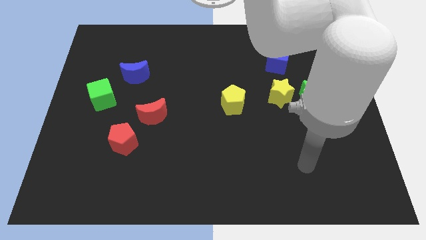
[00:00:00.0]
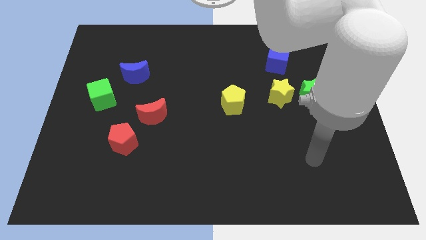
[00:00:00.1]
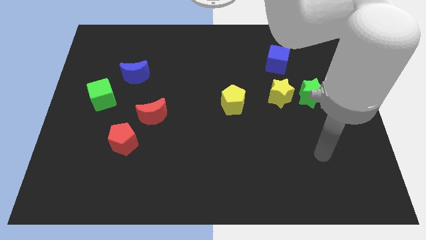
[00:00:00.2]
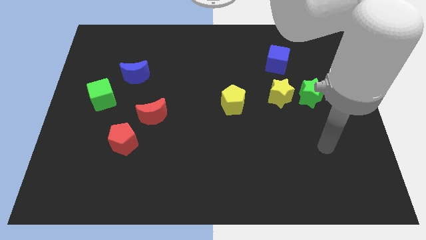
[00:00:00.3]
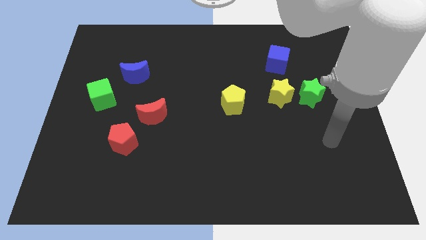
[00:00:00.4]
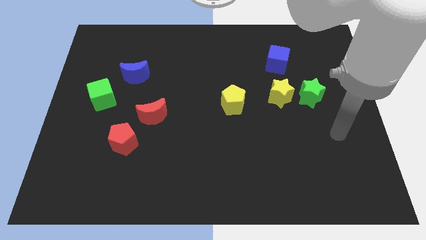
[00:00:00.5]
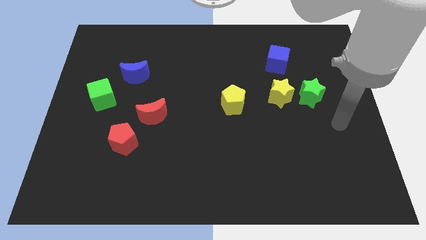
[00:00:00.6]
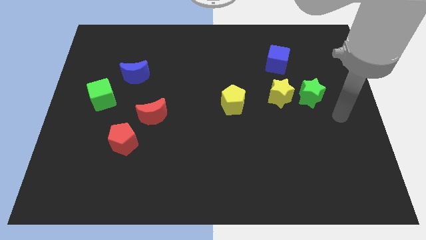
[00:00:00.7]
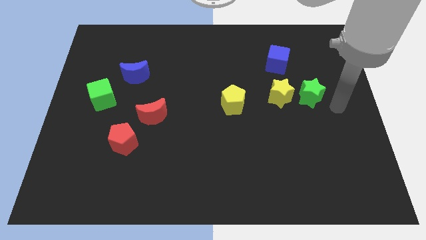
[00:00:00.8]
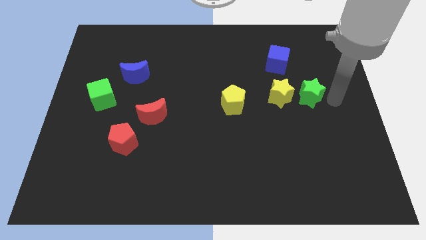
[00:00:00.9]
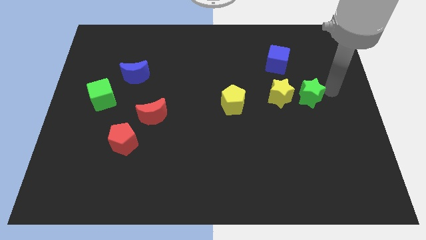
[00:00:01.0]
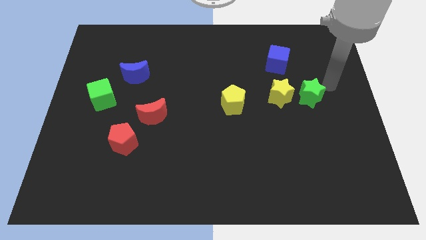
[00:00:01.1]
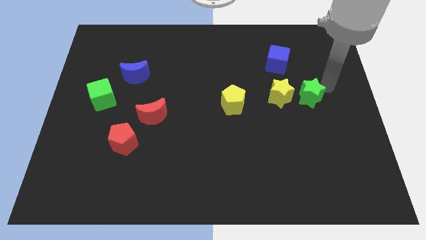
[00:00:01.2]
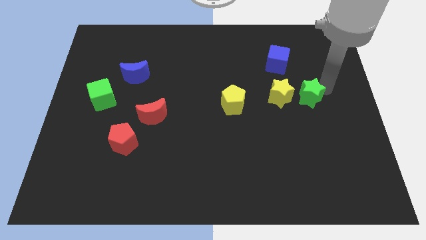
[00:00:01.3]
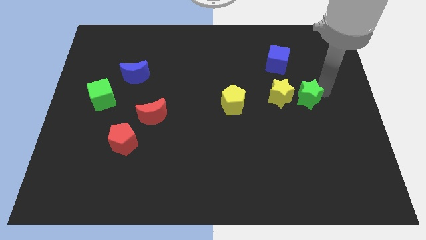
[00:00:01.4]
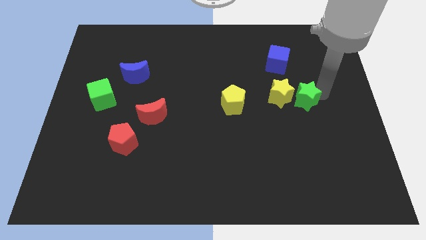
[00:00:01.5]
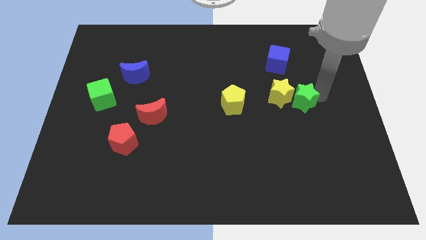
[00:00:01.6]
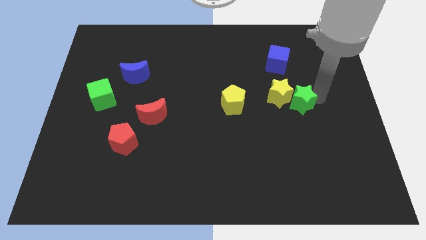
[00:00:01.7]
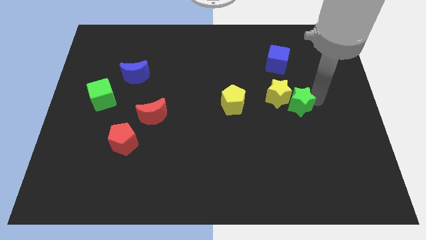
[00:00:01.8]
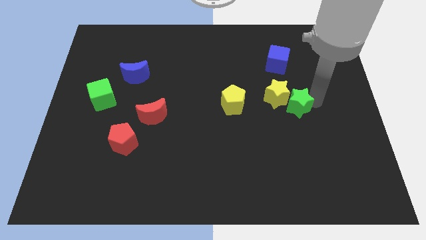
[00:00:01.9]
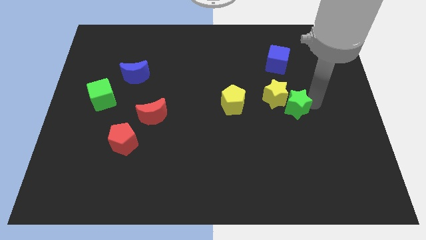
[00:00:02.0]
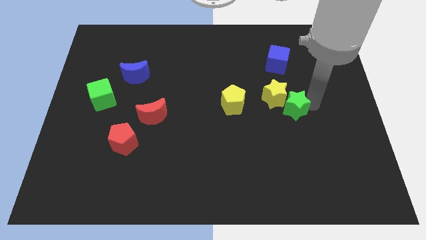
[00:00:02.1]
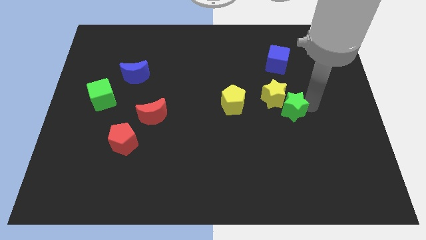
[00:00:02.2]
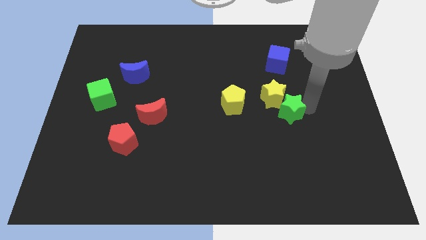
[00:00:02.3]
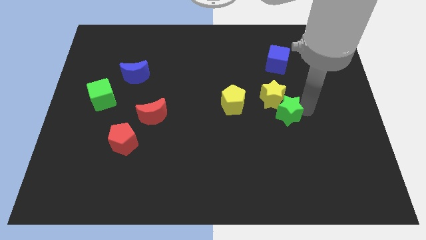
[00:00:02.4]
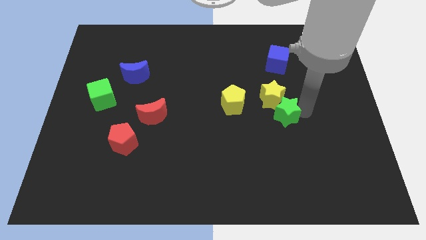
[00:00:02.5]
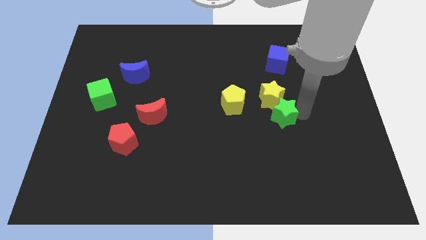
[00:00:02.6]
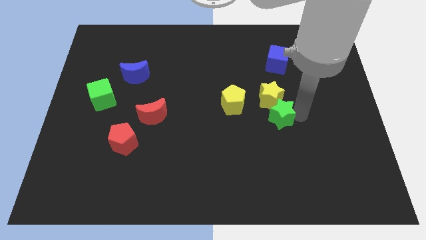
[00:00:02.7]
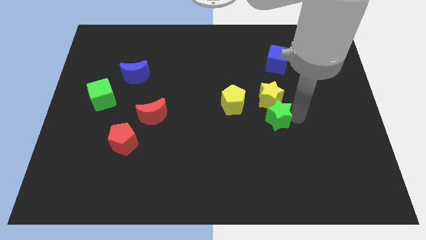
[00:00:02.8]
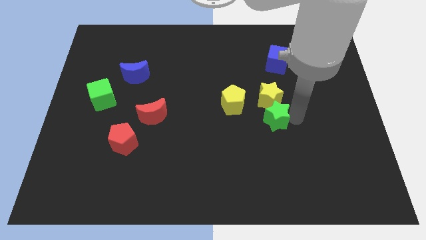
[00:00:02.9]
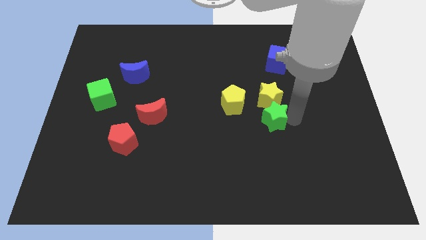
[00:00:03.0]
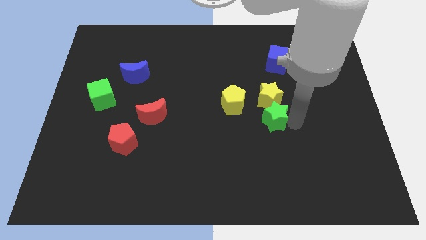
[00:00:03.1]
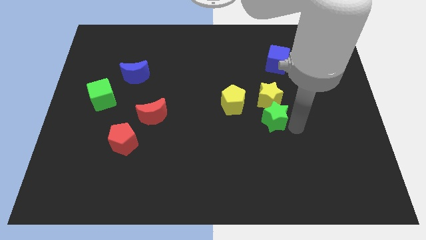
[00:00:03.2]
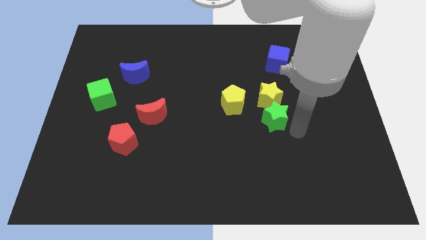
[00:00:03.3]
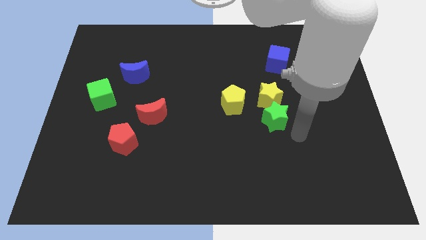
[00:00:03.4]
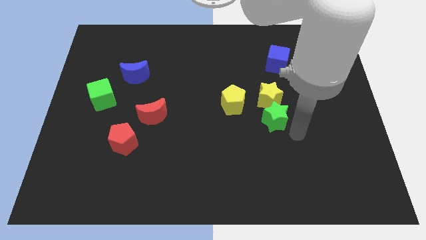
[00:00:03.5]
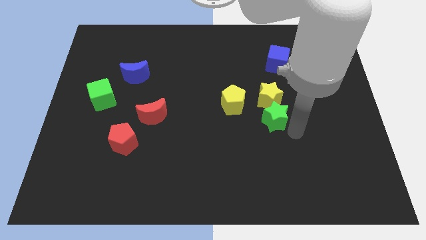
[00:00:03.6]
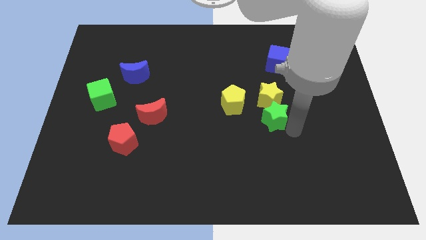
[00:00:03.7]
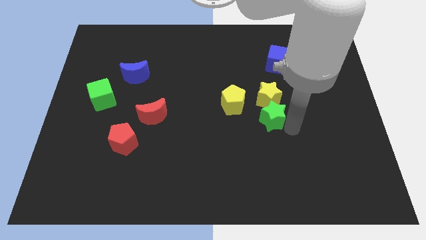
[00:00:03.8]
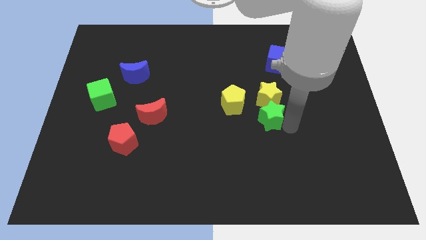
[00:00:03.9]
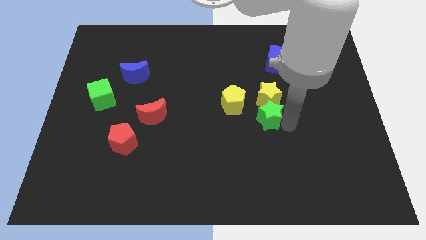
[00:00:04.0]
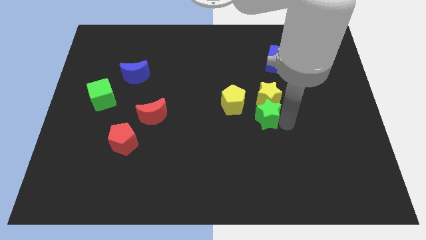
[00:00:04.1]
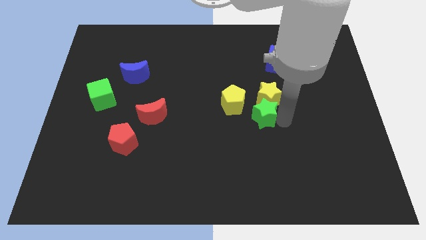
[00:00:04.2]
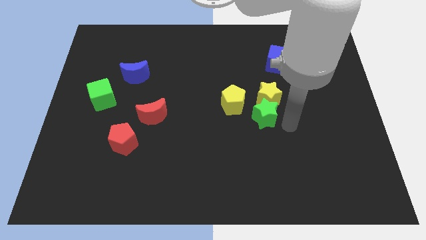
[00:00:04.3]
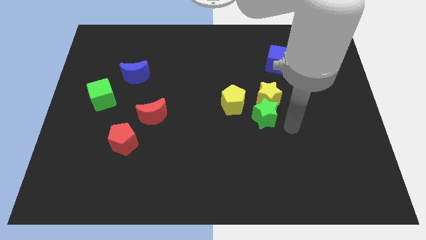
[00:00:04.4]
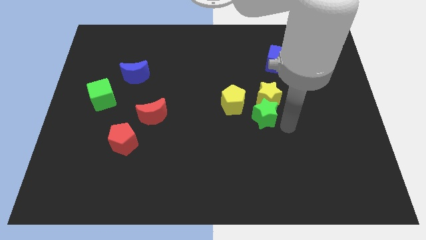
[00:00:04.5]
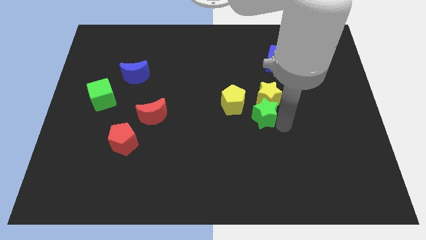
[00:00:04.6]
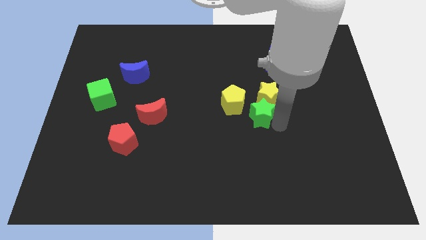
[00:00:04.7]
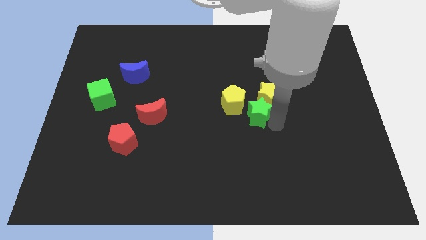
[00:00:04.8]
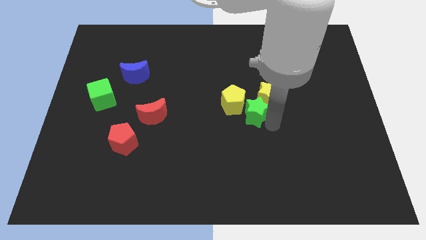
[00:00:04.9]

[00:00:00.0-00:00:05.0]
move the green star next to the yellow pentagon

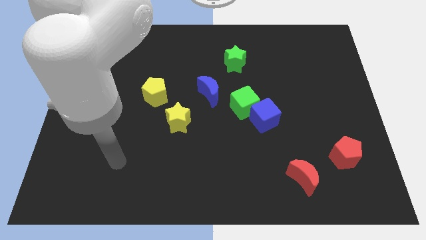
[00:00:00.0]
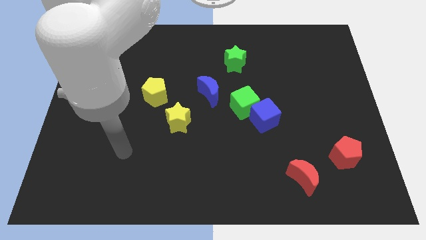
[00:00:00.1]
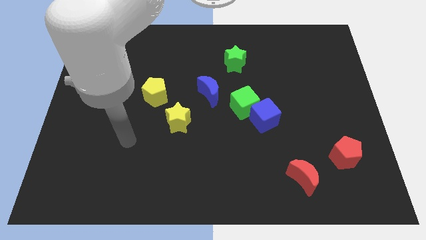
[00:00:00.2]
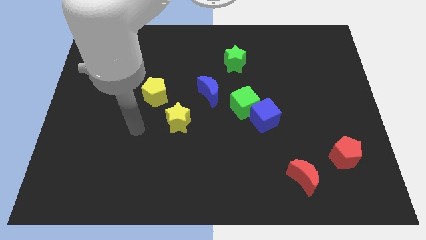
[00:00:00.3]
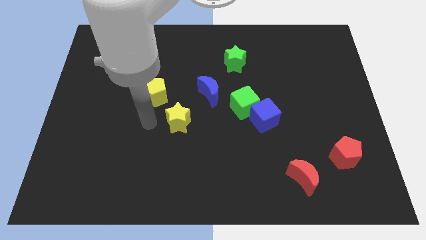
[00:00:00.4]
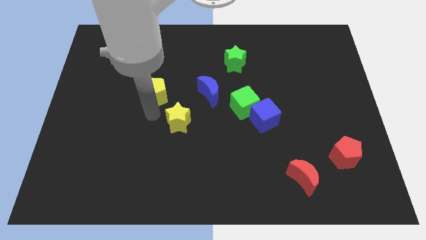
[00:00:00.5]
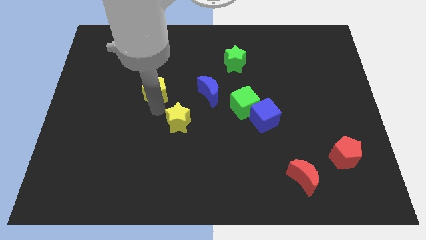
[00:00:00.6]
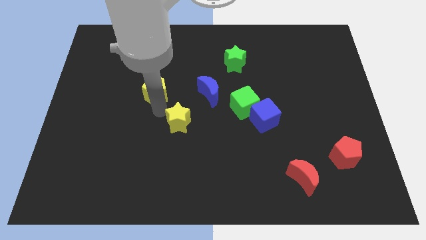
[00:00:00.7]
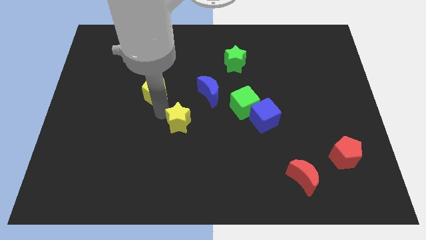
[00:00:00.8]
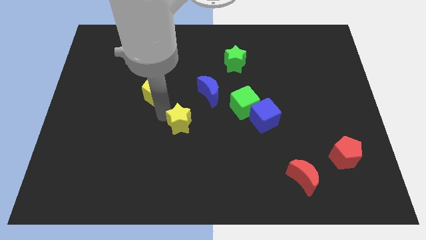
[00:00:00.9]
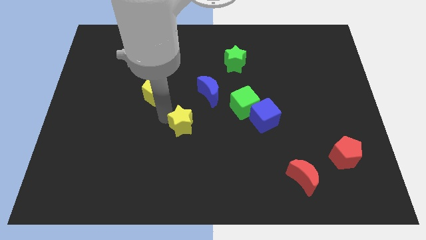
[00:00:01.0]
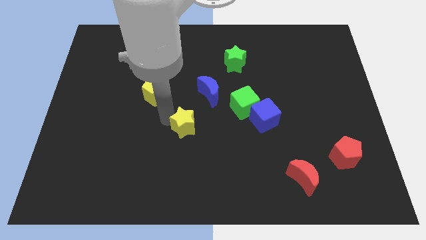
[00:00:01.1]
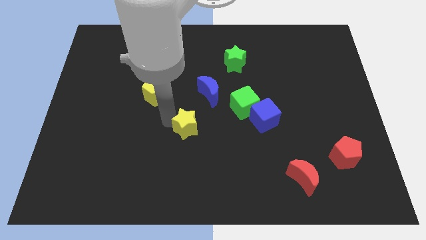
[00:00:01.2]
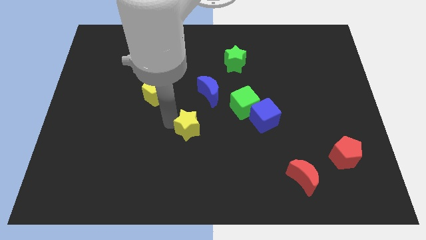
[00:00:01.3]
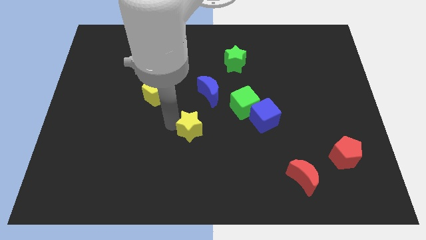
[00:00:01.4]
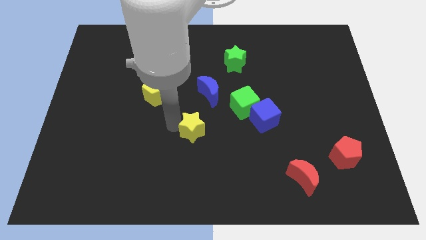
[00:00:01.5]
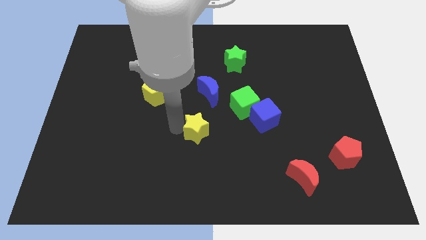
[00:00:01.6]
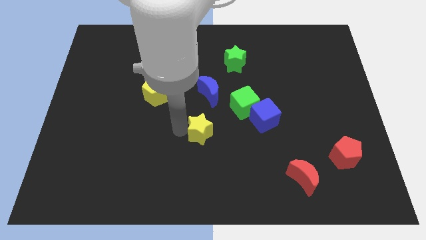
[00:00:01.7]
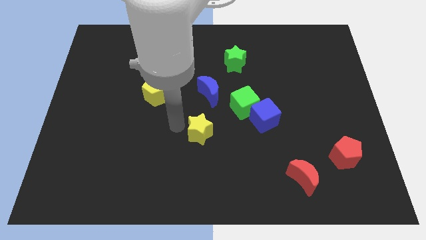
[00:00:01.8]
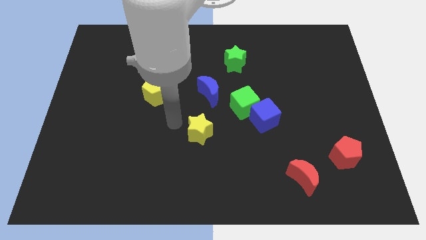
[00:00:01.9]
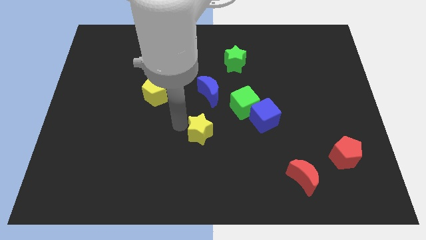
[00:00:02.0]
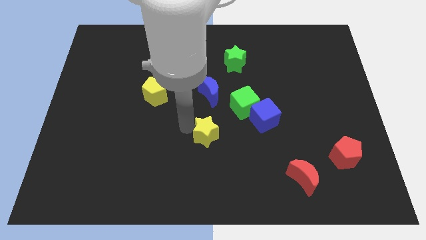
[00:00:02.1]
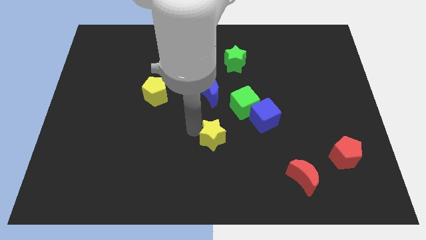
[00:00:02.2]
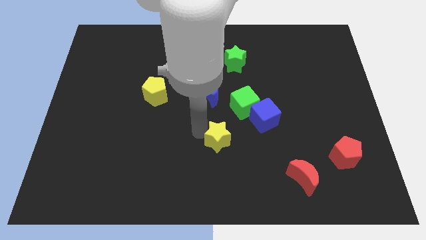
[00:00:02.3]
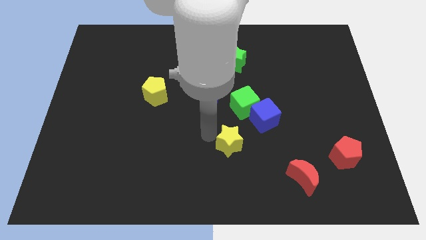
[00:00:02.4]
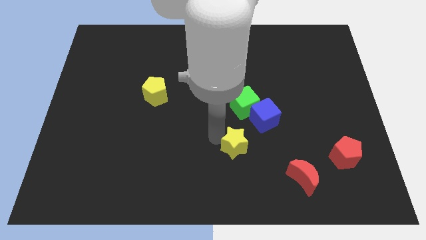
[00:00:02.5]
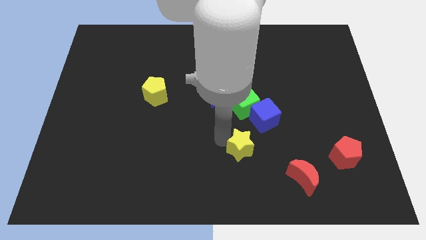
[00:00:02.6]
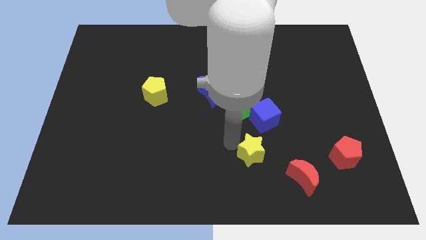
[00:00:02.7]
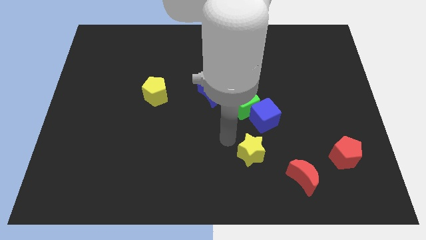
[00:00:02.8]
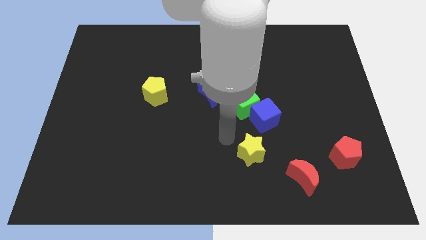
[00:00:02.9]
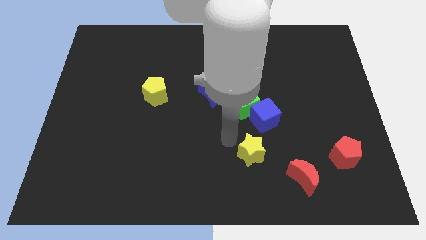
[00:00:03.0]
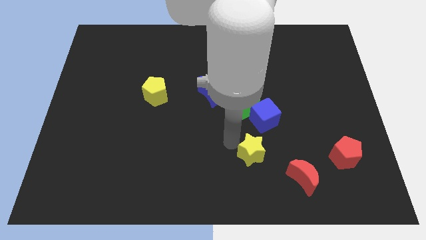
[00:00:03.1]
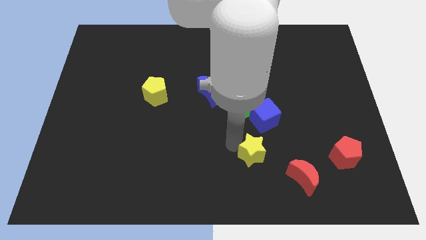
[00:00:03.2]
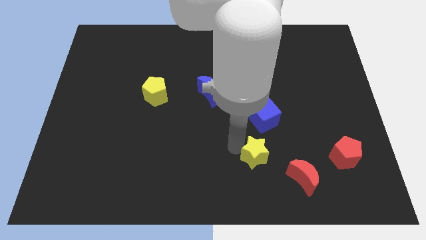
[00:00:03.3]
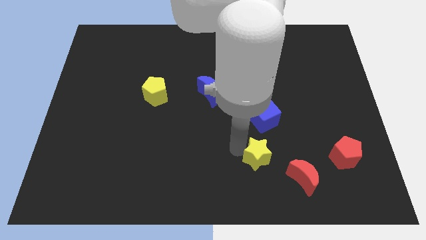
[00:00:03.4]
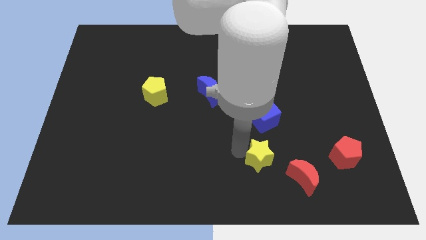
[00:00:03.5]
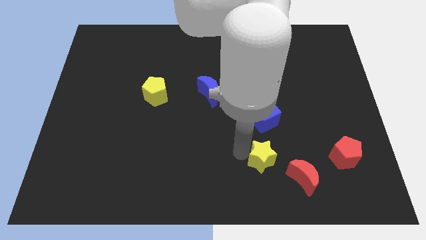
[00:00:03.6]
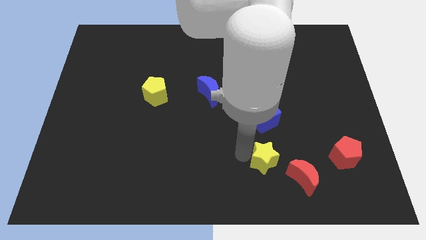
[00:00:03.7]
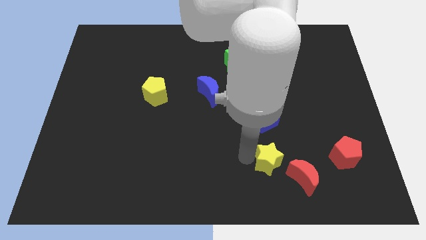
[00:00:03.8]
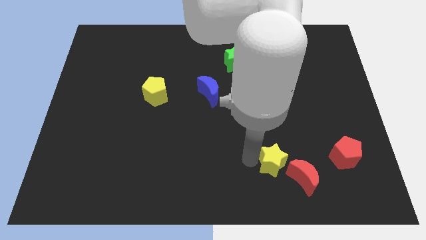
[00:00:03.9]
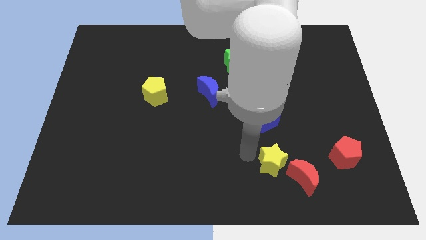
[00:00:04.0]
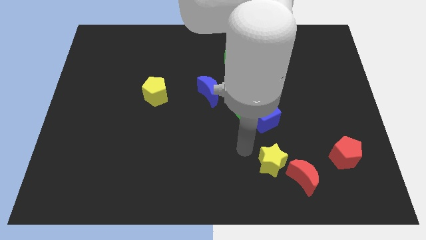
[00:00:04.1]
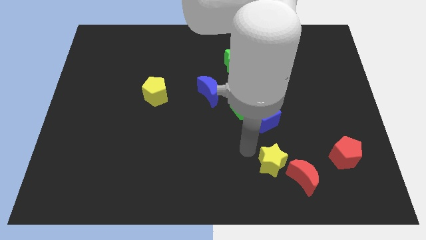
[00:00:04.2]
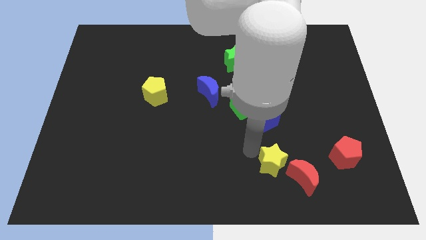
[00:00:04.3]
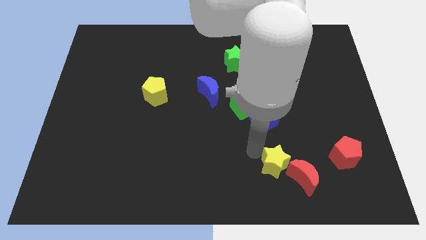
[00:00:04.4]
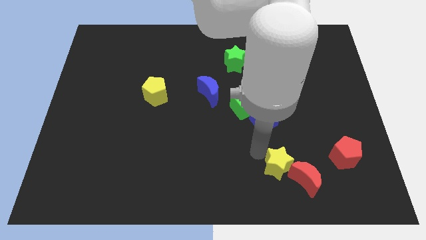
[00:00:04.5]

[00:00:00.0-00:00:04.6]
put the yellow star towards the red moon
